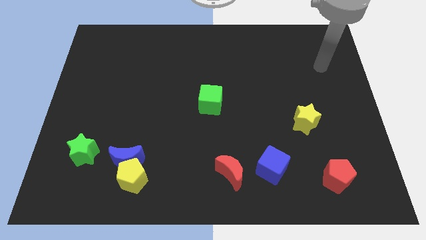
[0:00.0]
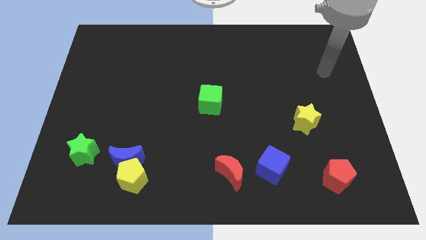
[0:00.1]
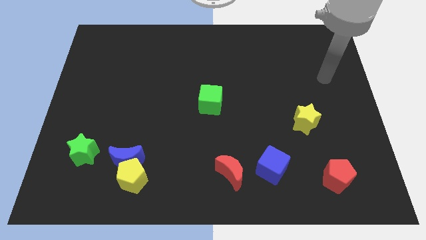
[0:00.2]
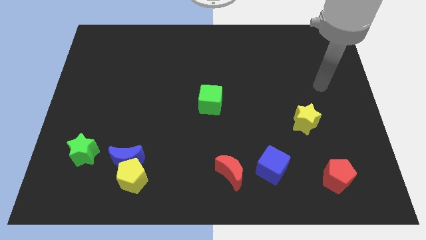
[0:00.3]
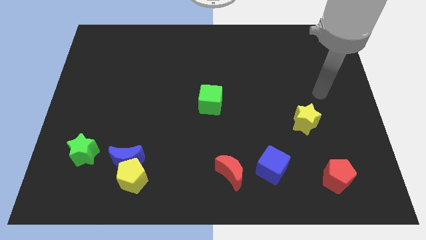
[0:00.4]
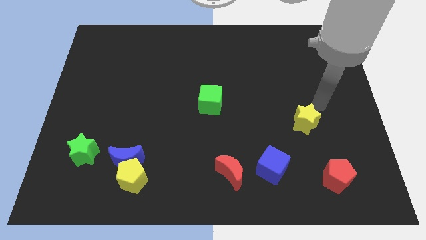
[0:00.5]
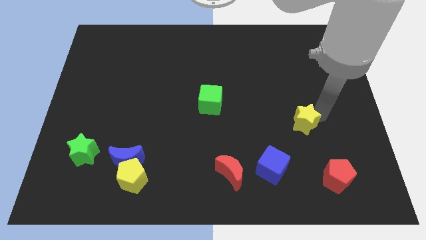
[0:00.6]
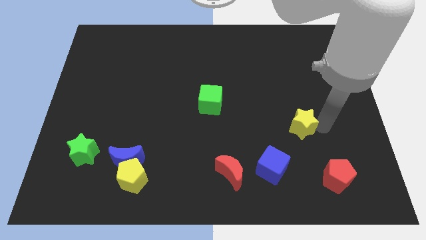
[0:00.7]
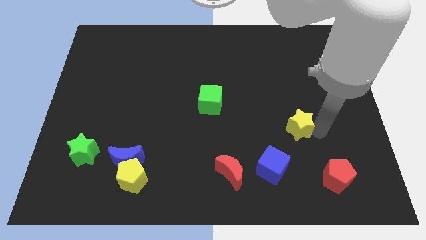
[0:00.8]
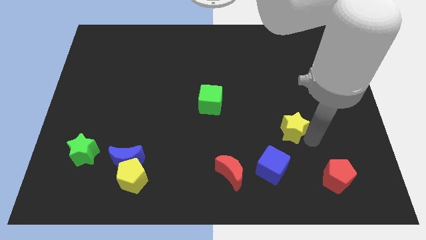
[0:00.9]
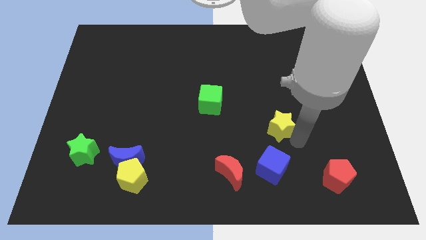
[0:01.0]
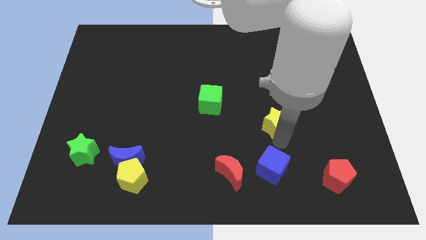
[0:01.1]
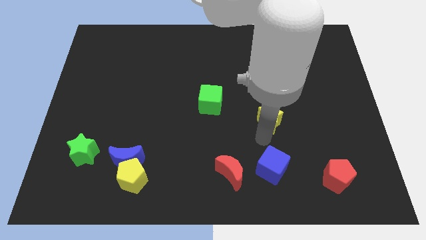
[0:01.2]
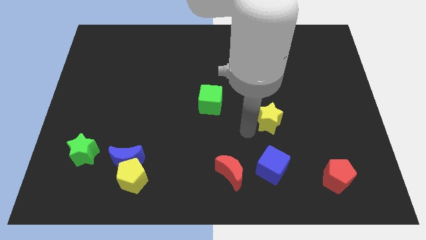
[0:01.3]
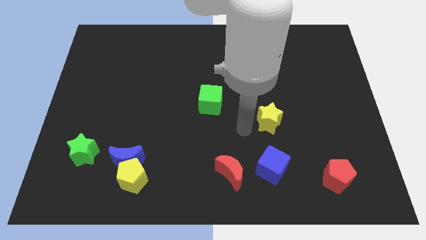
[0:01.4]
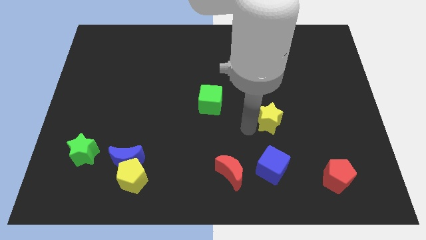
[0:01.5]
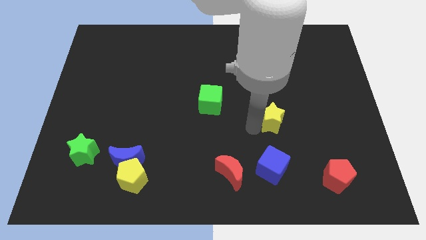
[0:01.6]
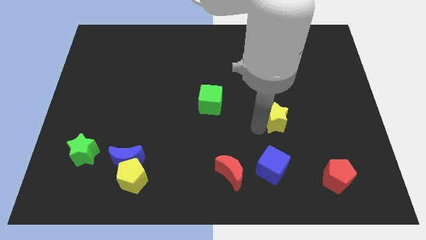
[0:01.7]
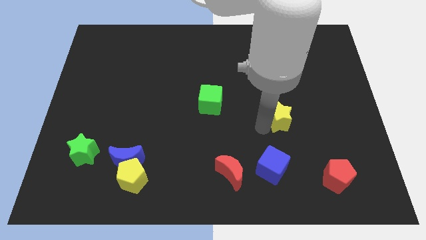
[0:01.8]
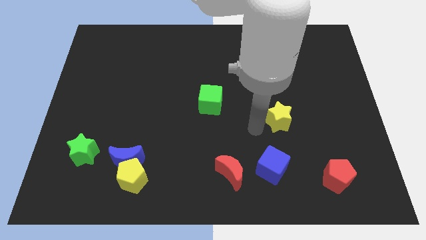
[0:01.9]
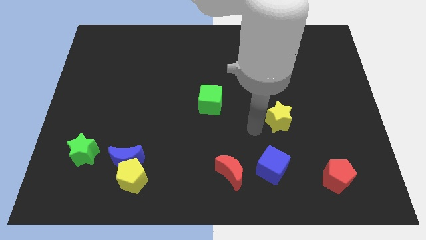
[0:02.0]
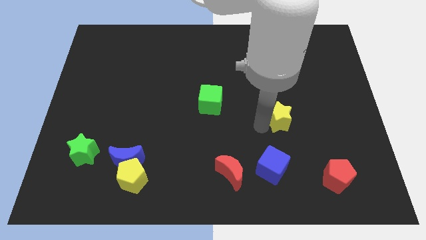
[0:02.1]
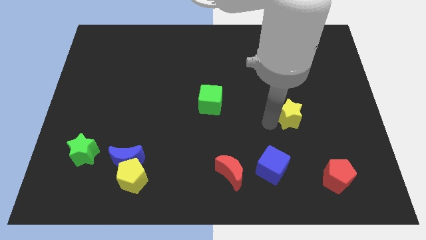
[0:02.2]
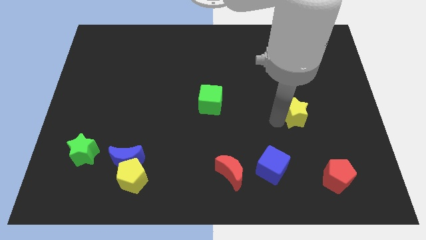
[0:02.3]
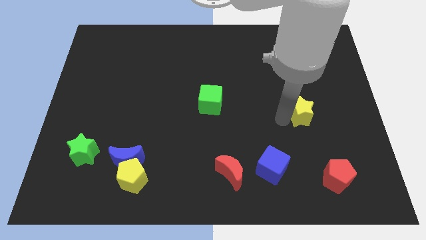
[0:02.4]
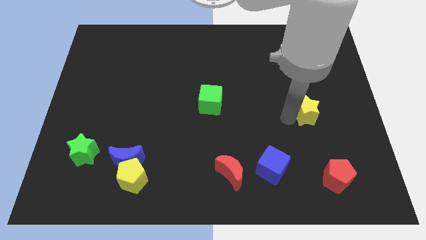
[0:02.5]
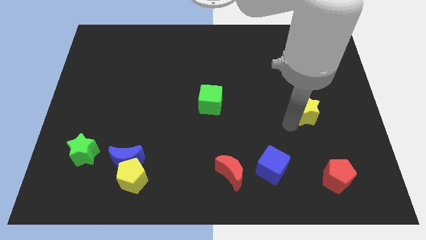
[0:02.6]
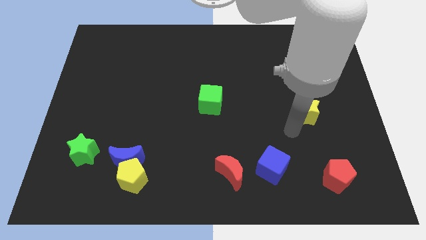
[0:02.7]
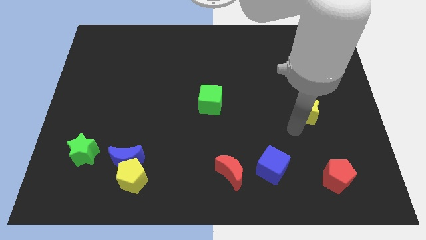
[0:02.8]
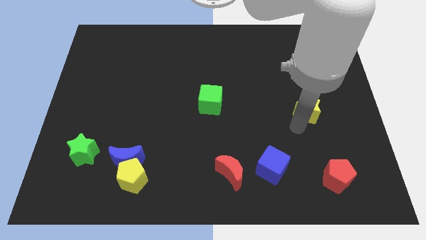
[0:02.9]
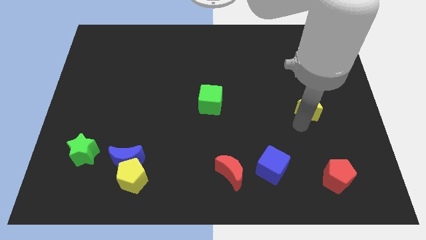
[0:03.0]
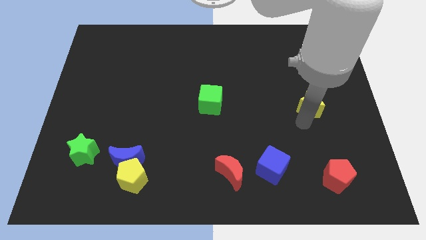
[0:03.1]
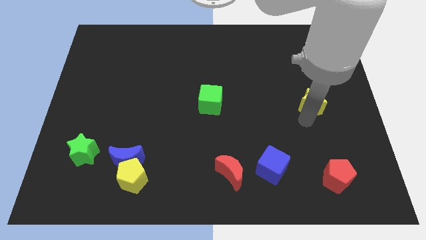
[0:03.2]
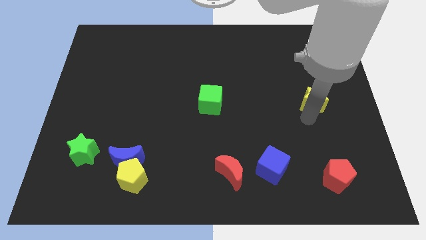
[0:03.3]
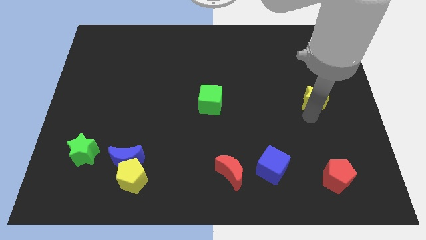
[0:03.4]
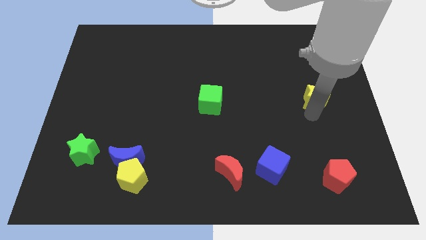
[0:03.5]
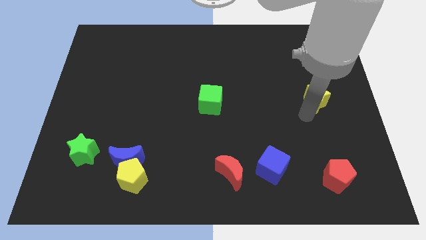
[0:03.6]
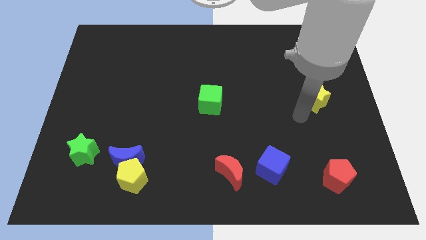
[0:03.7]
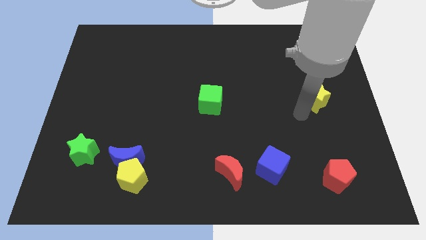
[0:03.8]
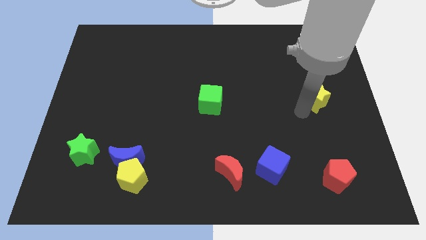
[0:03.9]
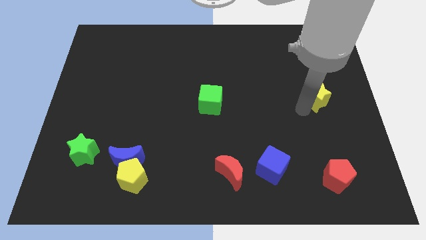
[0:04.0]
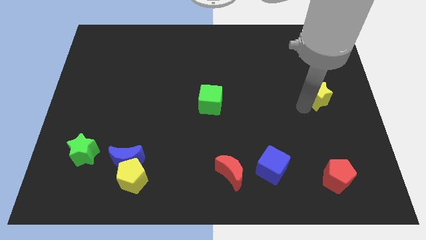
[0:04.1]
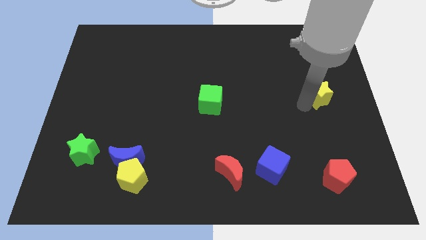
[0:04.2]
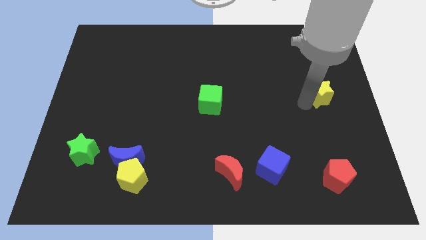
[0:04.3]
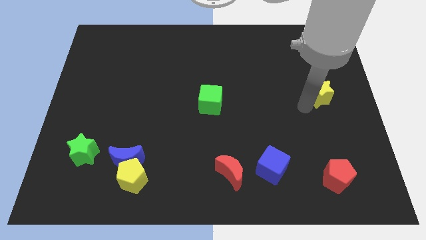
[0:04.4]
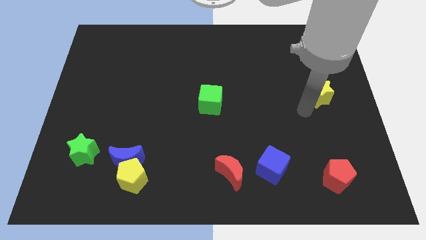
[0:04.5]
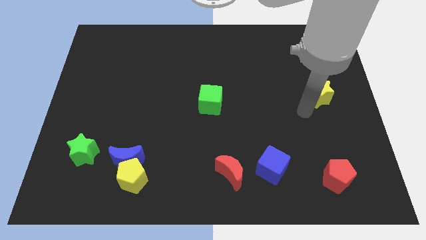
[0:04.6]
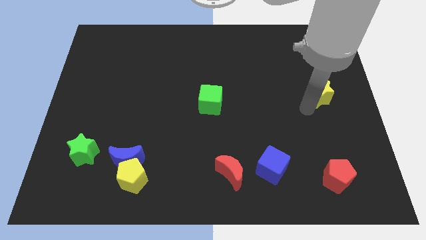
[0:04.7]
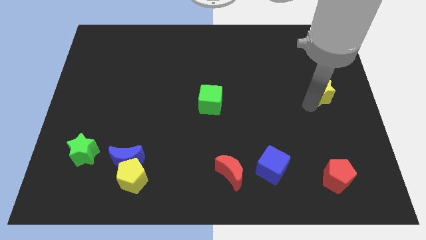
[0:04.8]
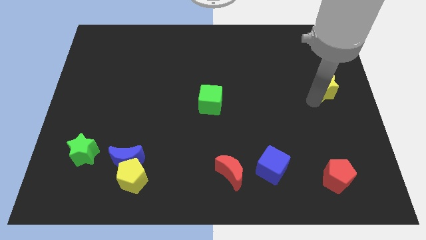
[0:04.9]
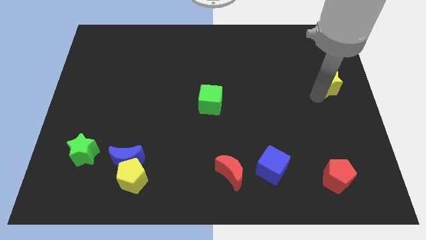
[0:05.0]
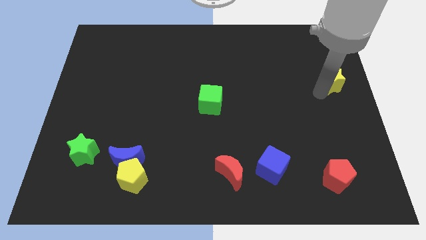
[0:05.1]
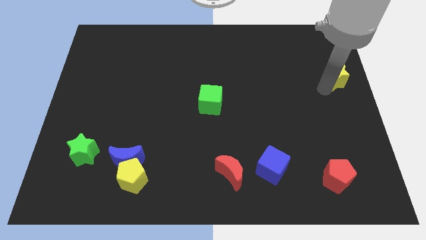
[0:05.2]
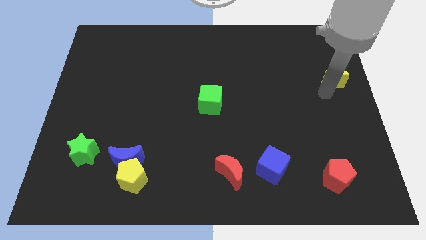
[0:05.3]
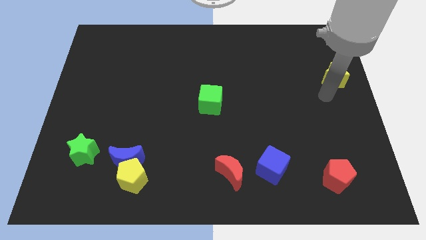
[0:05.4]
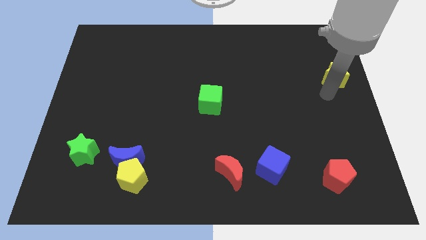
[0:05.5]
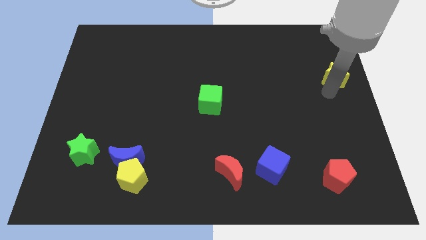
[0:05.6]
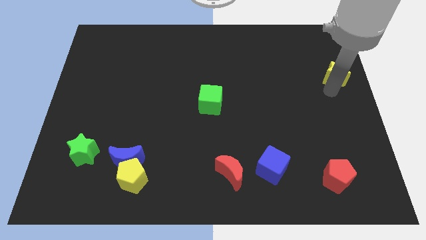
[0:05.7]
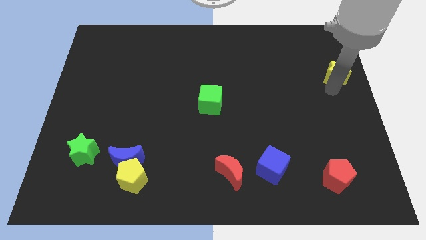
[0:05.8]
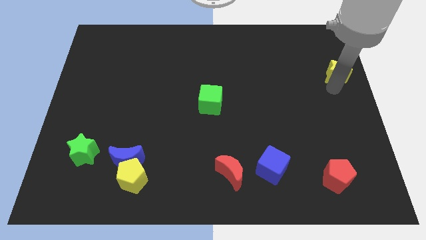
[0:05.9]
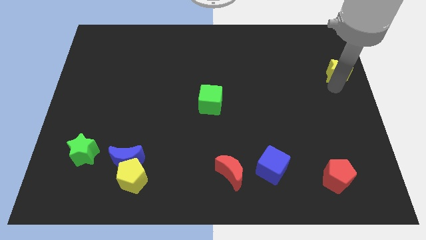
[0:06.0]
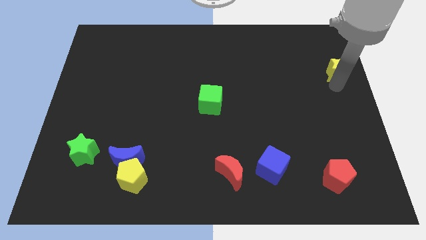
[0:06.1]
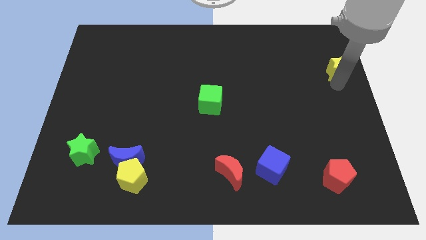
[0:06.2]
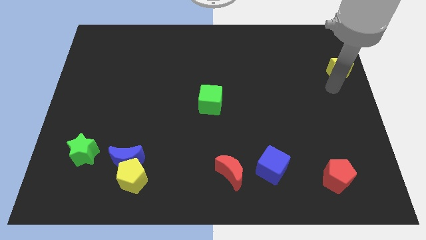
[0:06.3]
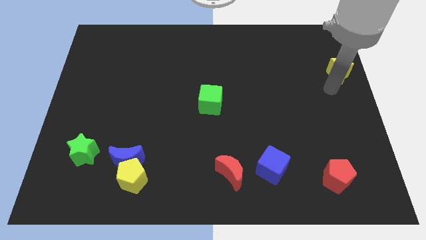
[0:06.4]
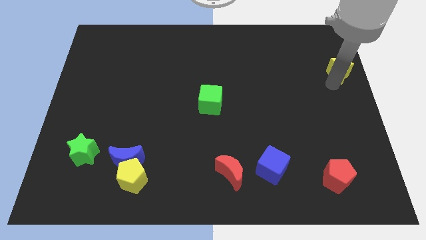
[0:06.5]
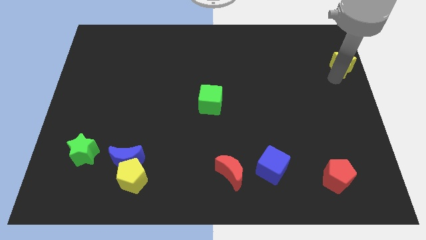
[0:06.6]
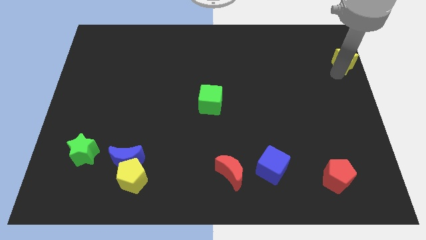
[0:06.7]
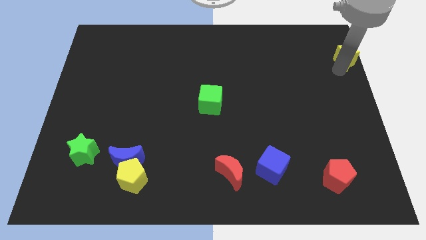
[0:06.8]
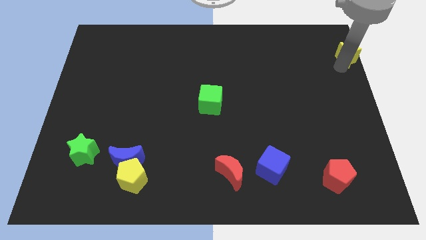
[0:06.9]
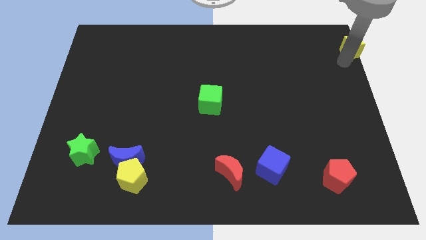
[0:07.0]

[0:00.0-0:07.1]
move the yellow star to the top right
